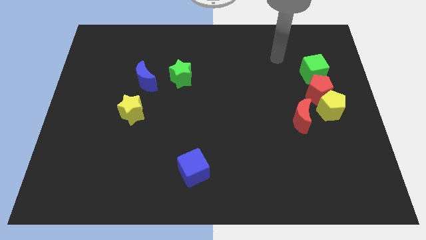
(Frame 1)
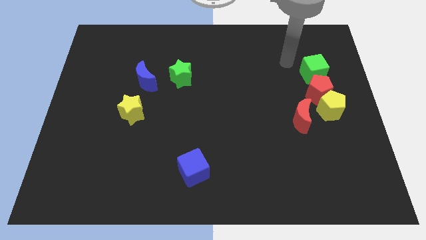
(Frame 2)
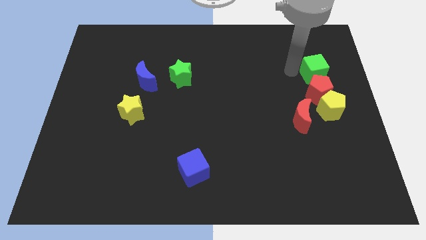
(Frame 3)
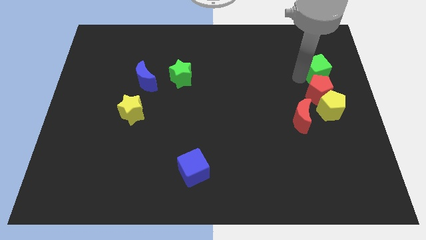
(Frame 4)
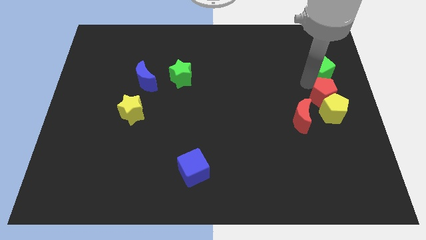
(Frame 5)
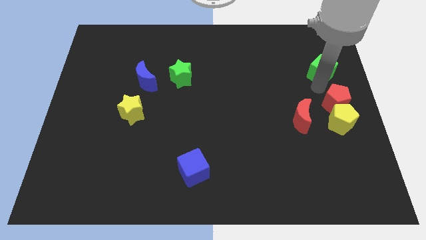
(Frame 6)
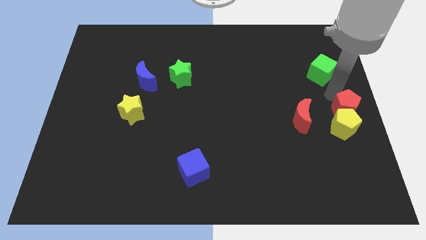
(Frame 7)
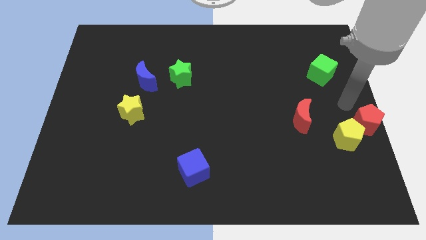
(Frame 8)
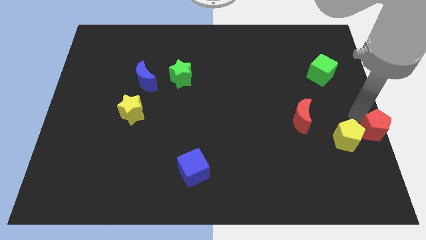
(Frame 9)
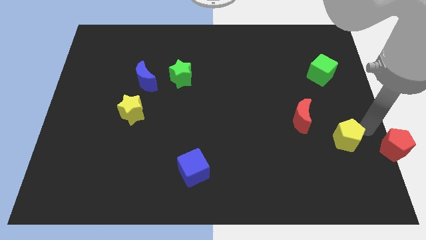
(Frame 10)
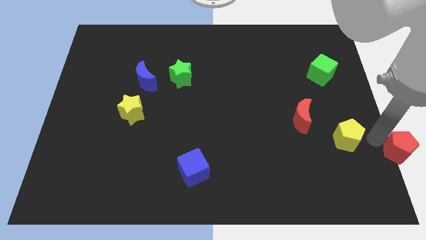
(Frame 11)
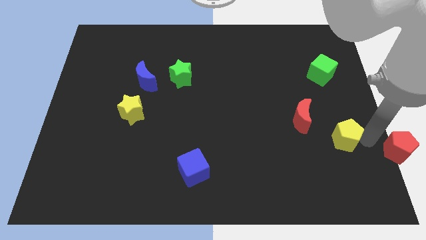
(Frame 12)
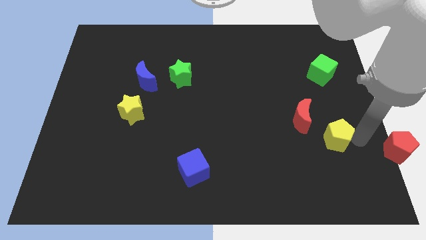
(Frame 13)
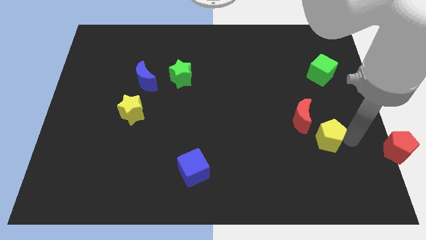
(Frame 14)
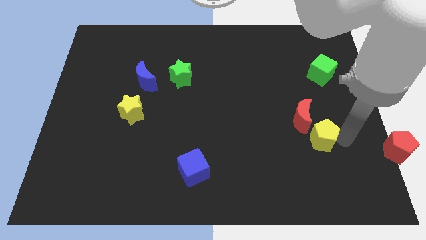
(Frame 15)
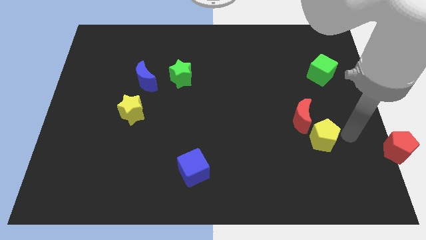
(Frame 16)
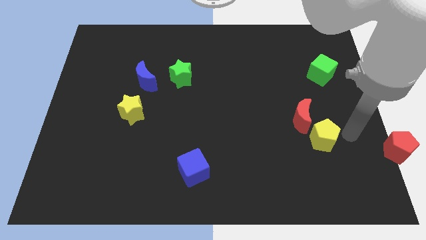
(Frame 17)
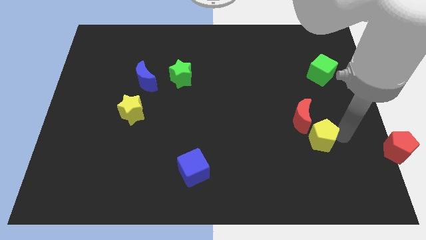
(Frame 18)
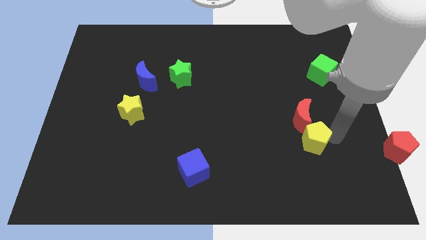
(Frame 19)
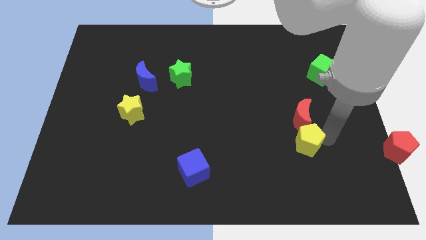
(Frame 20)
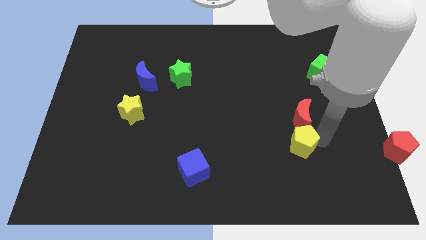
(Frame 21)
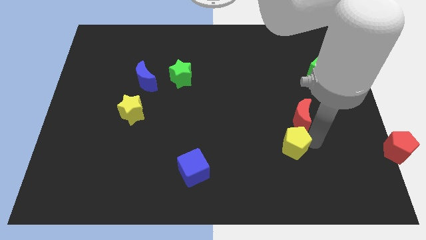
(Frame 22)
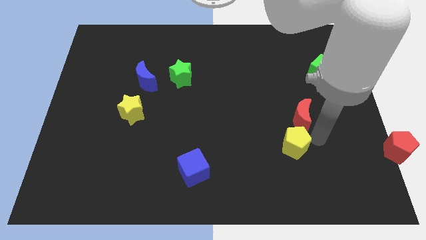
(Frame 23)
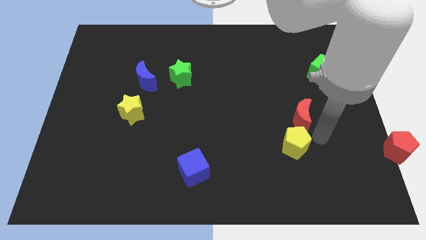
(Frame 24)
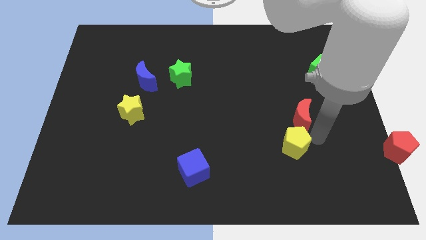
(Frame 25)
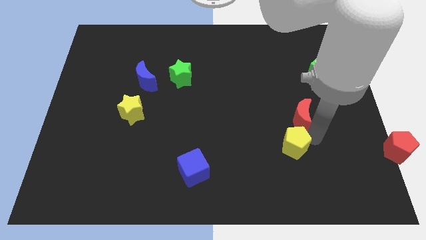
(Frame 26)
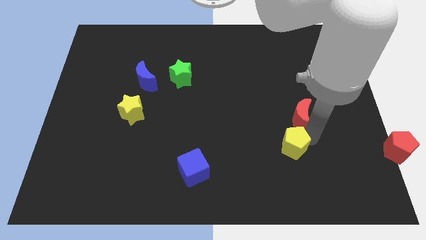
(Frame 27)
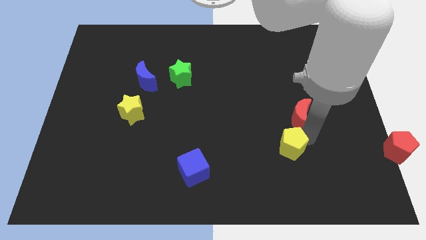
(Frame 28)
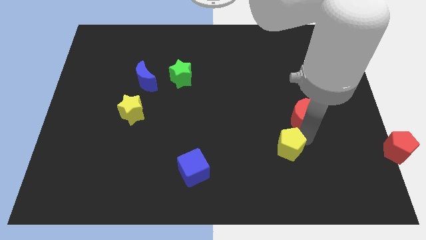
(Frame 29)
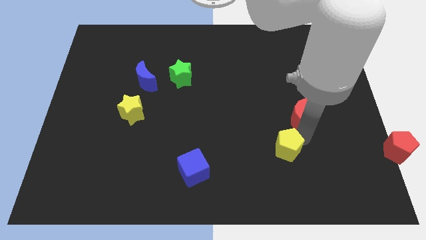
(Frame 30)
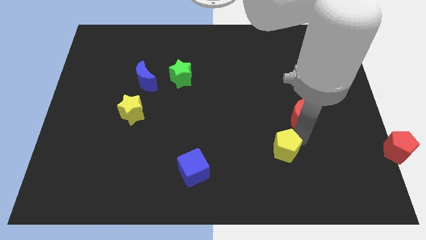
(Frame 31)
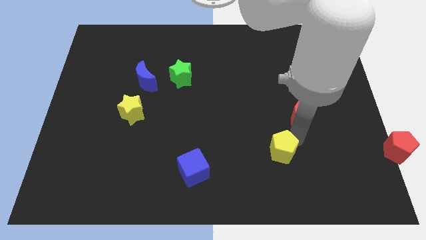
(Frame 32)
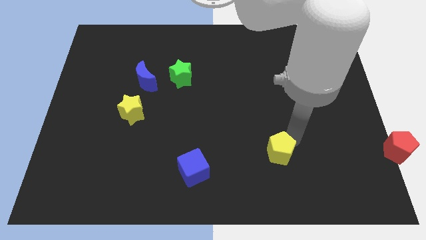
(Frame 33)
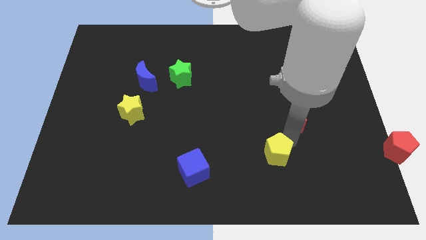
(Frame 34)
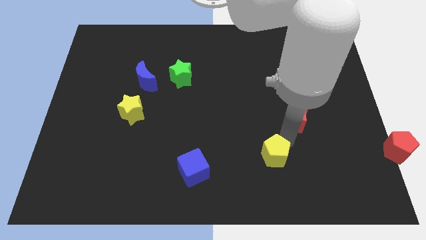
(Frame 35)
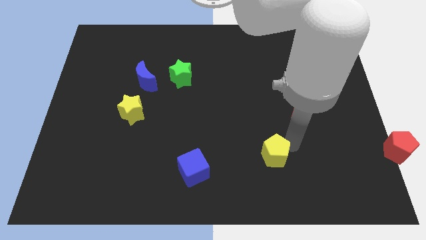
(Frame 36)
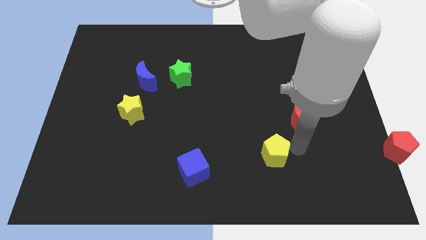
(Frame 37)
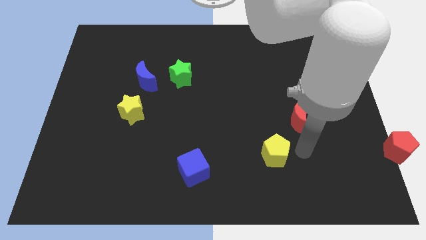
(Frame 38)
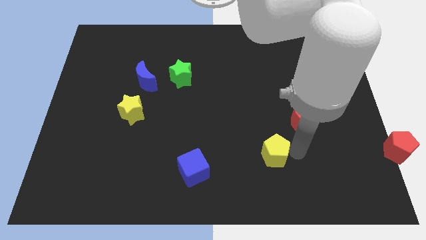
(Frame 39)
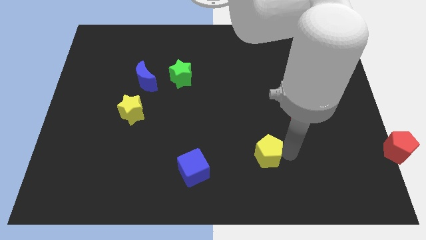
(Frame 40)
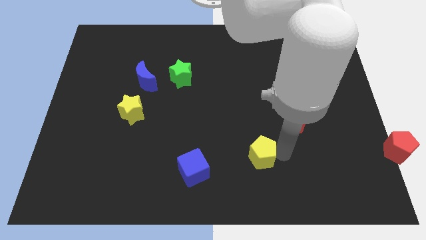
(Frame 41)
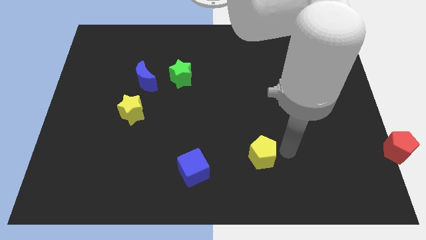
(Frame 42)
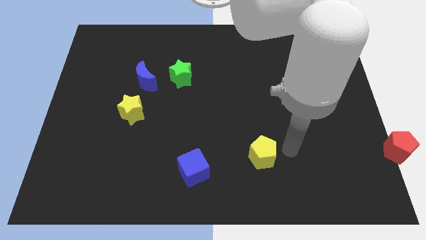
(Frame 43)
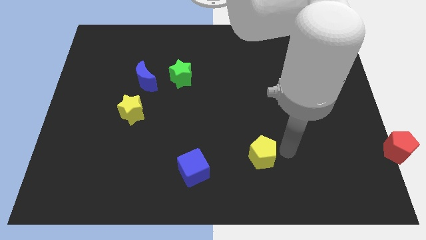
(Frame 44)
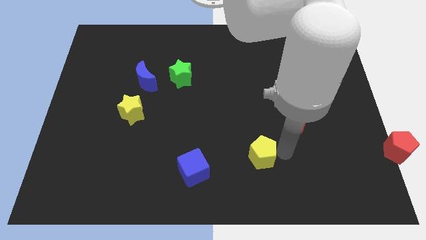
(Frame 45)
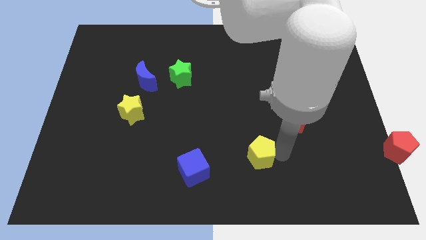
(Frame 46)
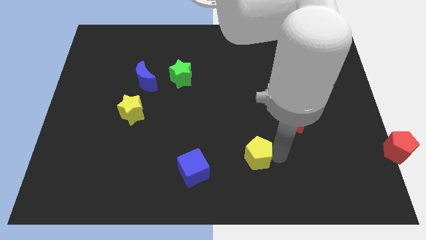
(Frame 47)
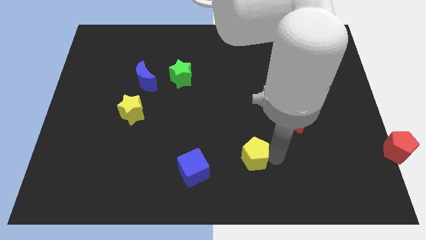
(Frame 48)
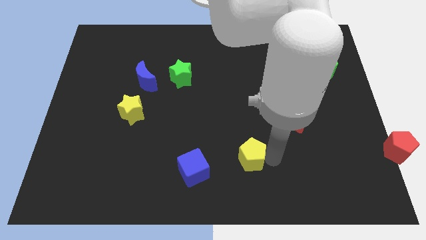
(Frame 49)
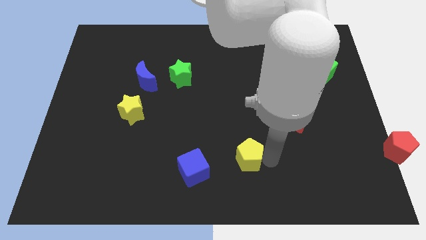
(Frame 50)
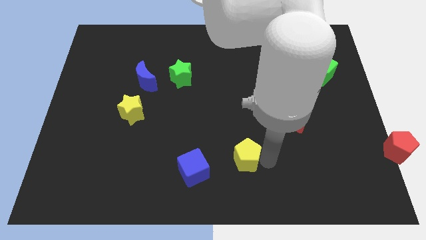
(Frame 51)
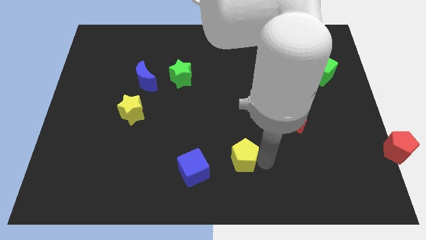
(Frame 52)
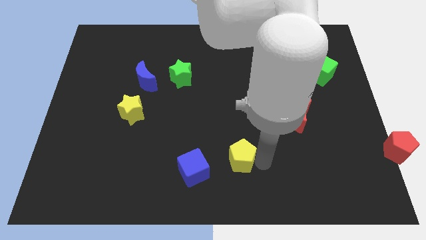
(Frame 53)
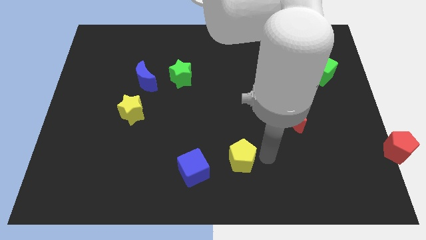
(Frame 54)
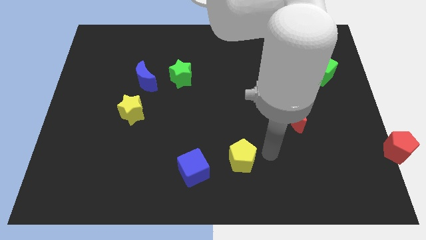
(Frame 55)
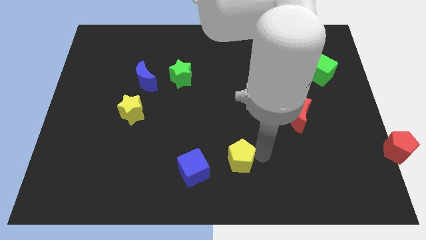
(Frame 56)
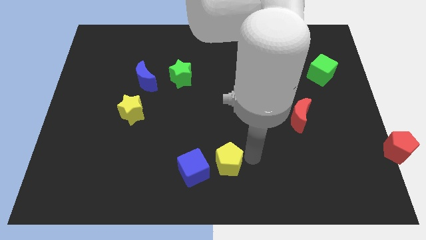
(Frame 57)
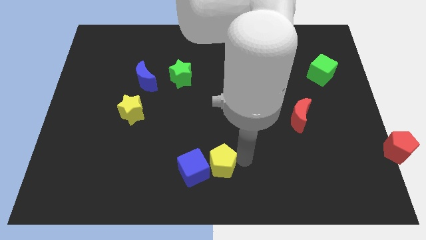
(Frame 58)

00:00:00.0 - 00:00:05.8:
put the yellow pentagon next to the blue cube

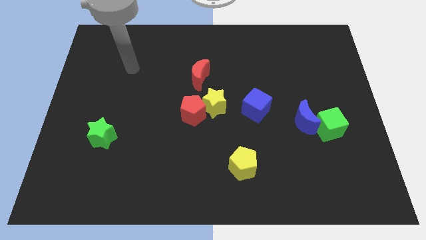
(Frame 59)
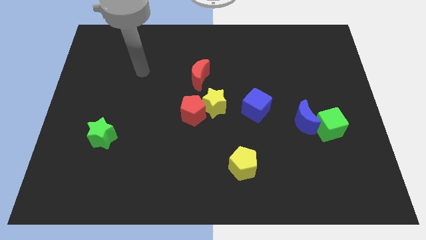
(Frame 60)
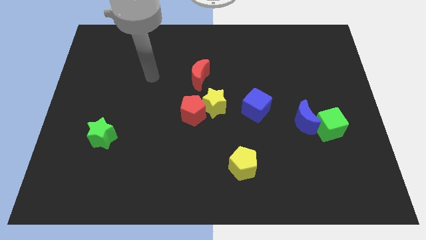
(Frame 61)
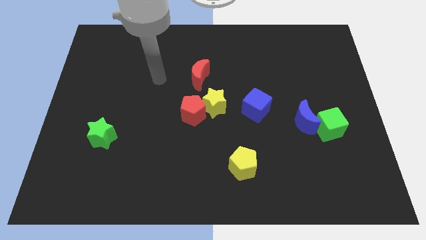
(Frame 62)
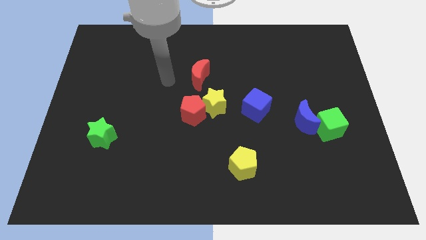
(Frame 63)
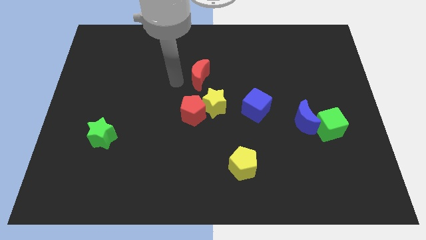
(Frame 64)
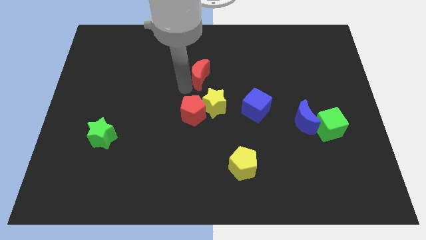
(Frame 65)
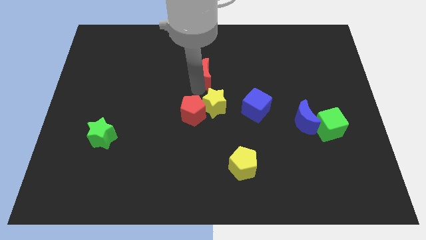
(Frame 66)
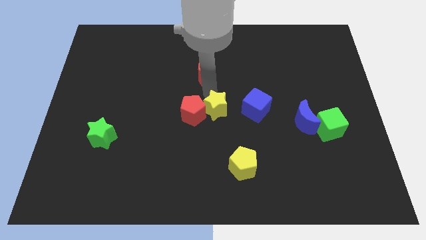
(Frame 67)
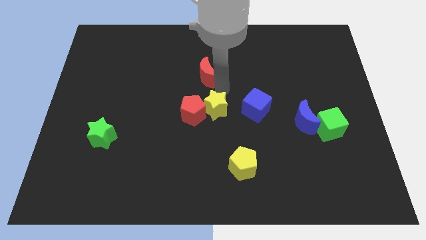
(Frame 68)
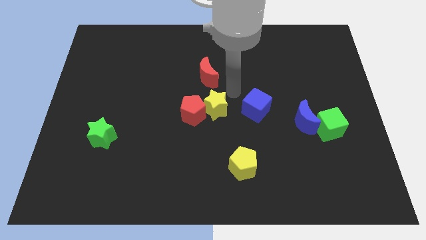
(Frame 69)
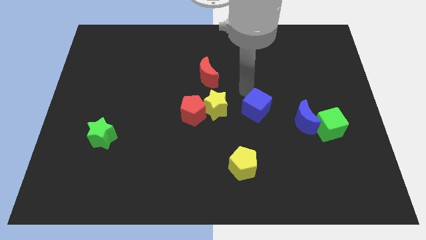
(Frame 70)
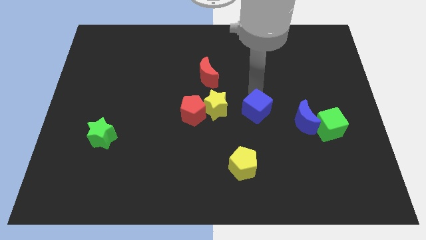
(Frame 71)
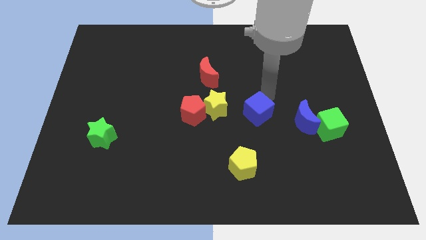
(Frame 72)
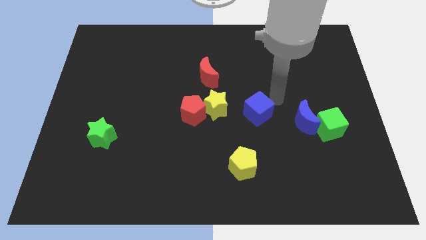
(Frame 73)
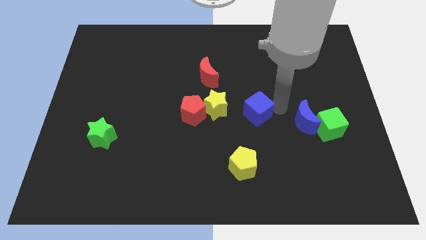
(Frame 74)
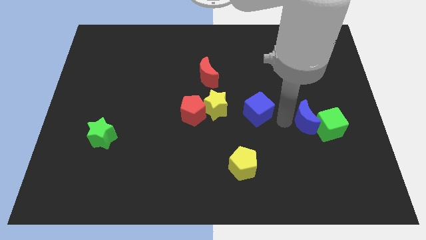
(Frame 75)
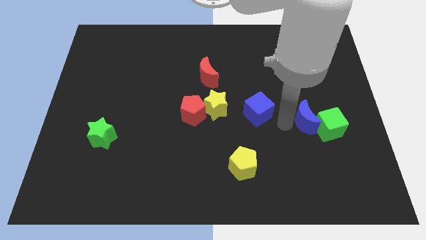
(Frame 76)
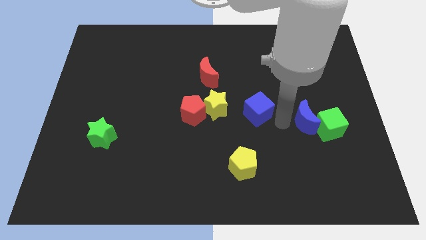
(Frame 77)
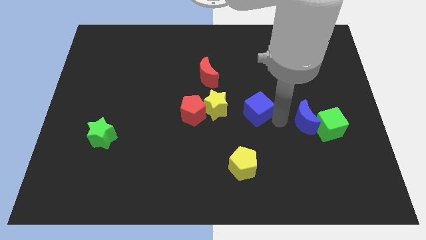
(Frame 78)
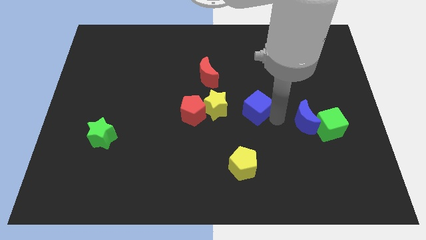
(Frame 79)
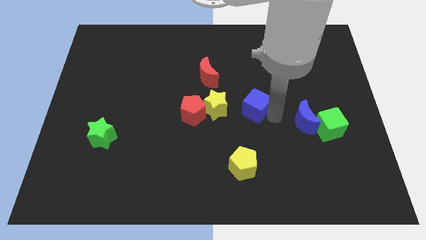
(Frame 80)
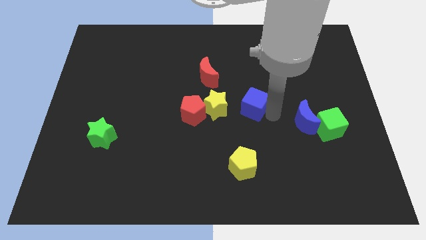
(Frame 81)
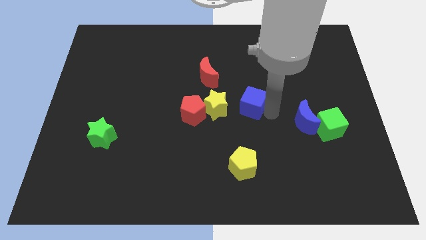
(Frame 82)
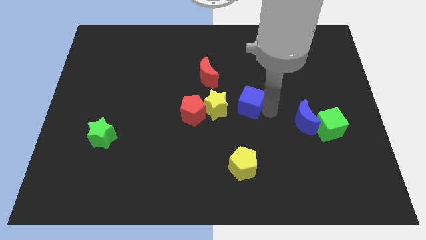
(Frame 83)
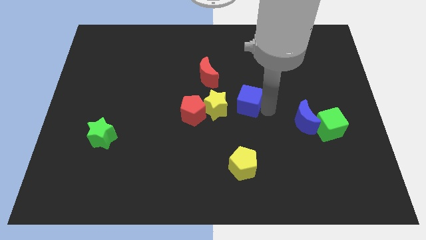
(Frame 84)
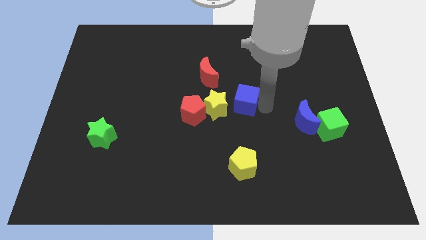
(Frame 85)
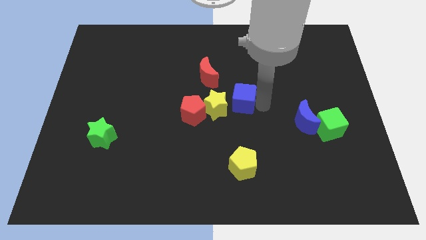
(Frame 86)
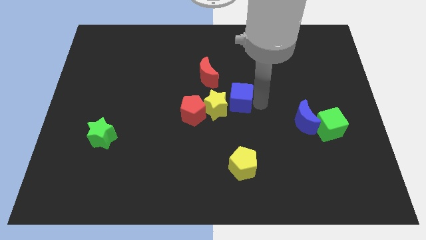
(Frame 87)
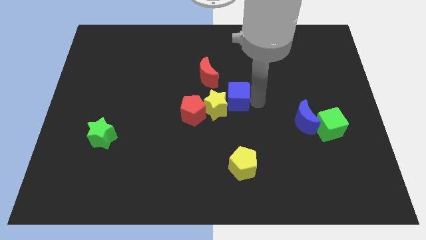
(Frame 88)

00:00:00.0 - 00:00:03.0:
slide the blue cube towards the yellow star
